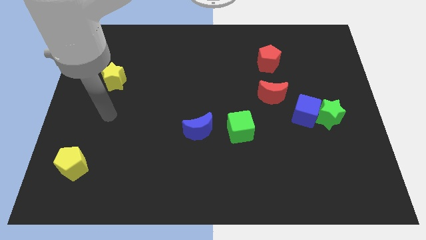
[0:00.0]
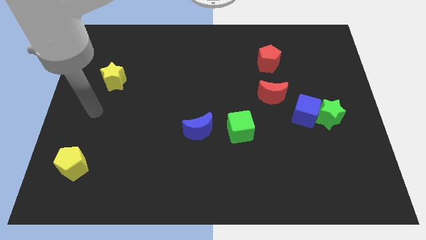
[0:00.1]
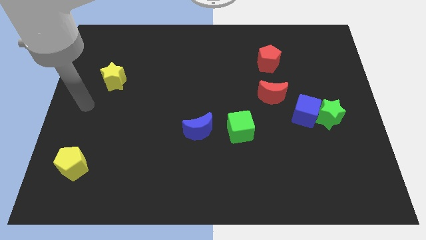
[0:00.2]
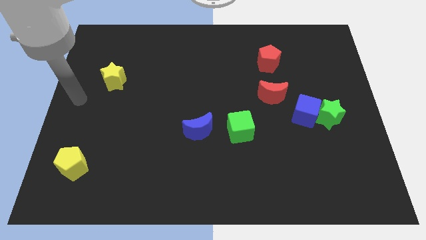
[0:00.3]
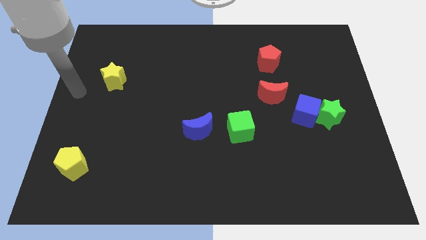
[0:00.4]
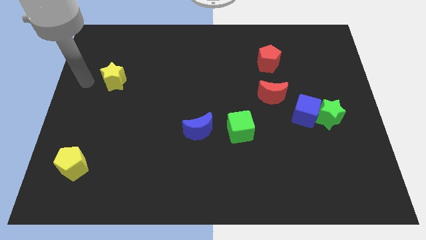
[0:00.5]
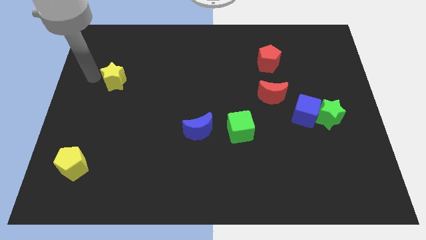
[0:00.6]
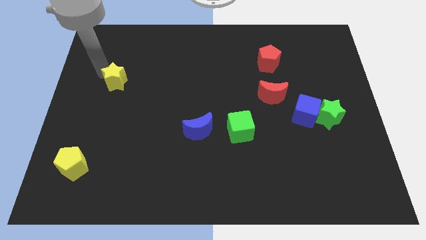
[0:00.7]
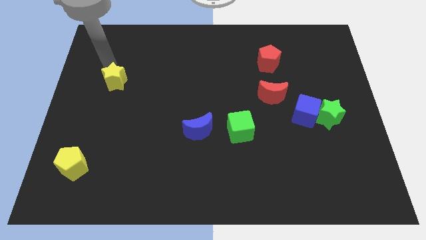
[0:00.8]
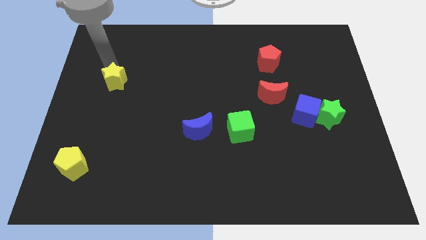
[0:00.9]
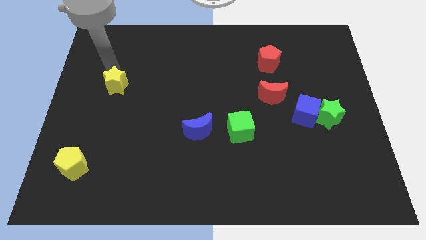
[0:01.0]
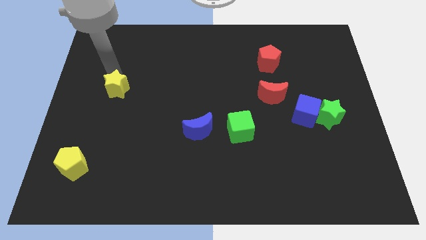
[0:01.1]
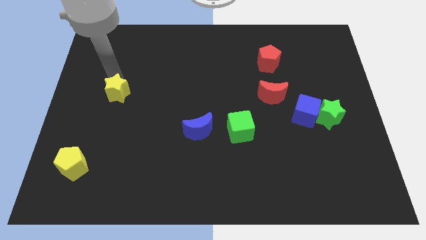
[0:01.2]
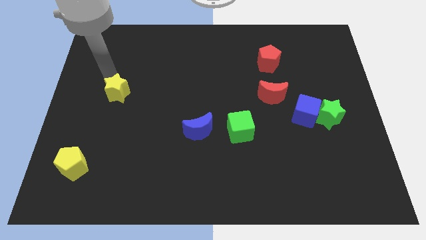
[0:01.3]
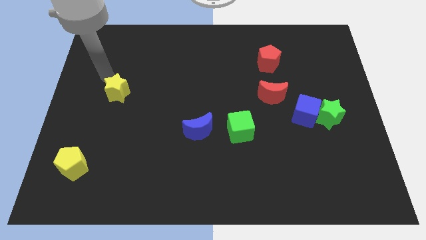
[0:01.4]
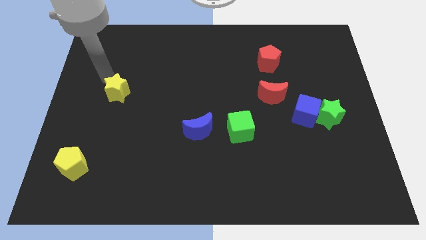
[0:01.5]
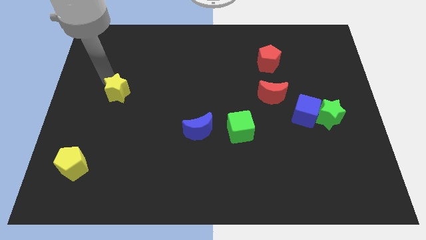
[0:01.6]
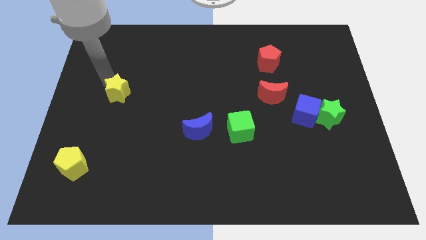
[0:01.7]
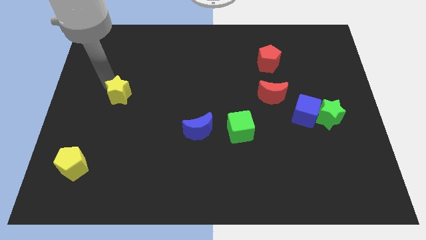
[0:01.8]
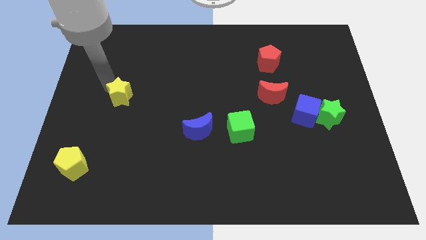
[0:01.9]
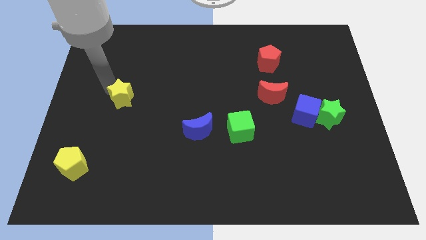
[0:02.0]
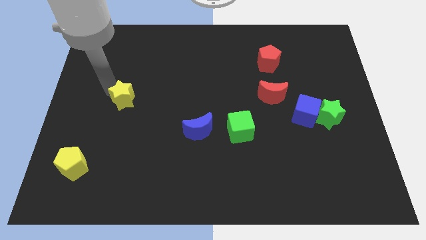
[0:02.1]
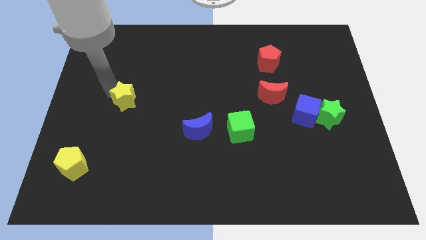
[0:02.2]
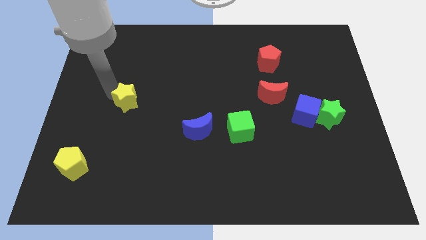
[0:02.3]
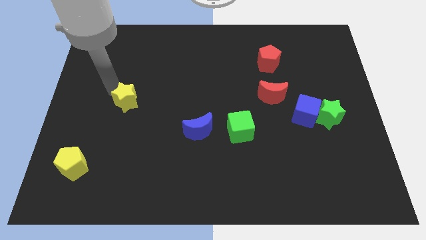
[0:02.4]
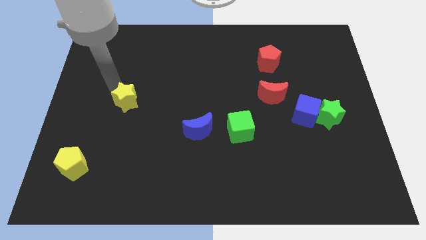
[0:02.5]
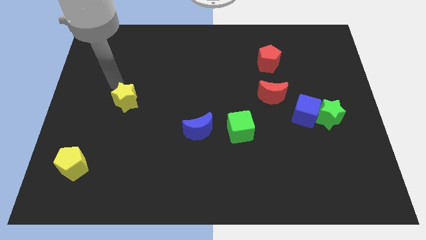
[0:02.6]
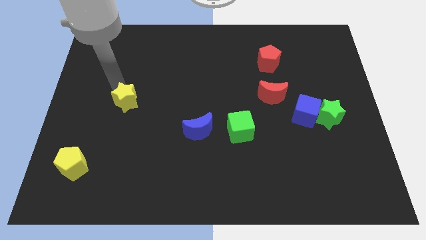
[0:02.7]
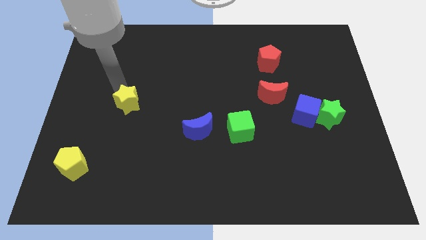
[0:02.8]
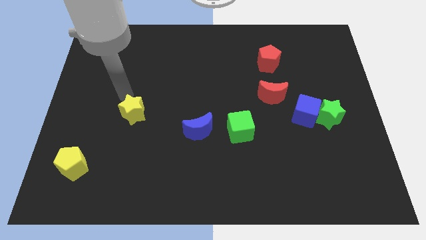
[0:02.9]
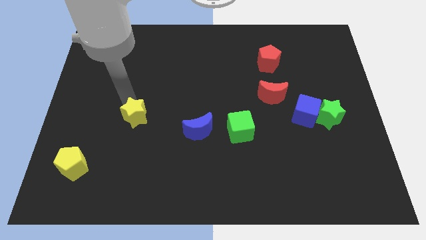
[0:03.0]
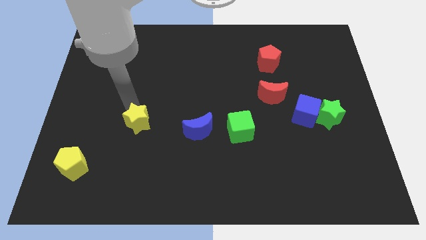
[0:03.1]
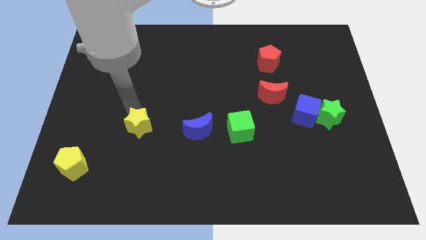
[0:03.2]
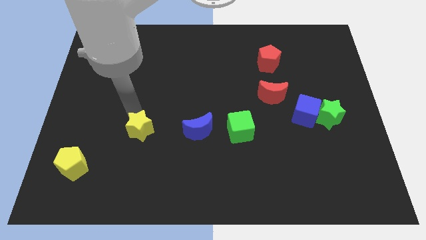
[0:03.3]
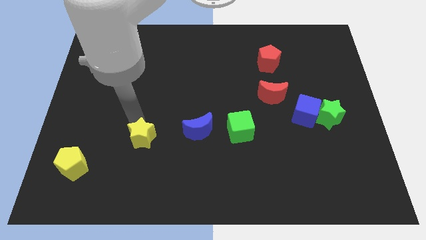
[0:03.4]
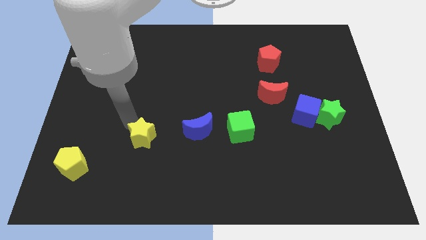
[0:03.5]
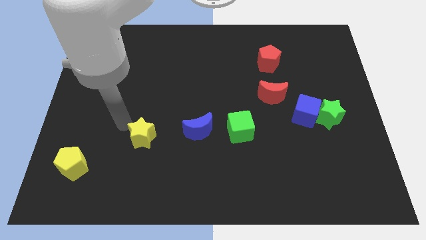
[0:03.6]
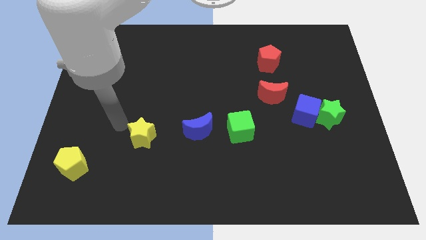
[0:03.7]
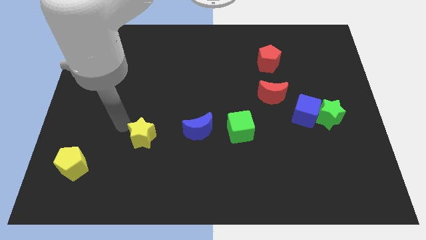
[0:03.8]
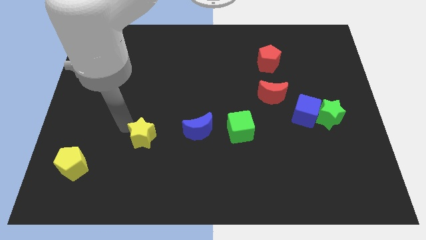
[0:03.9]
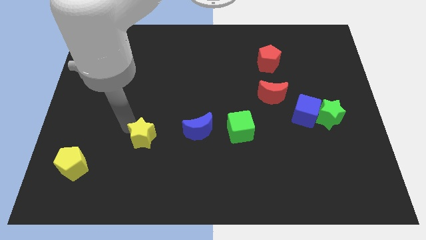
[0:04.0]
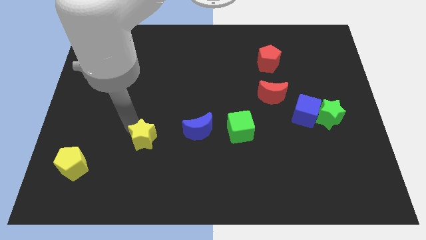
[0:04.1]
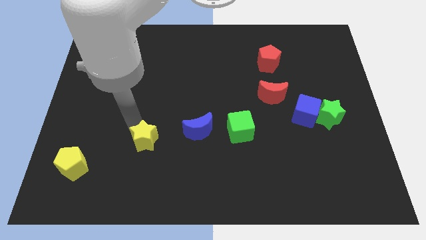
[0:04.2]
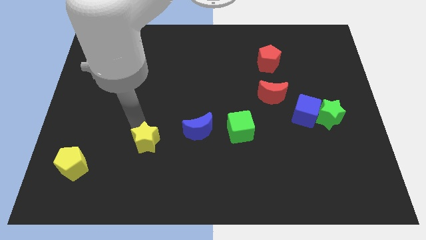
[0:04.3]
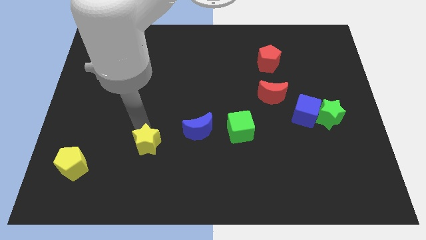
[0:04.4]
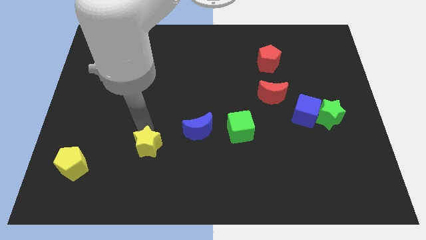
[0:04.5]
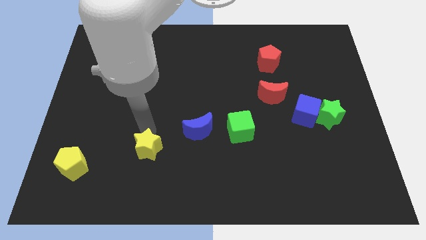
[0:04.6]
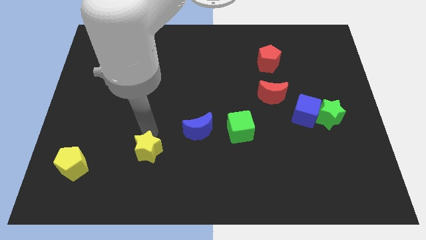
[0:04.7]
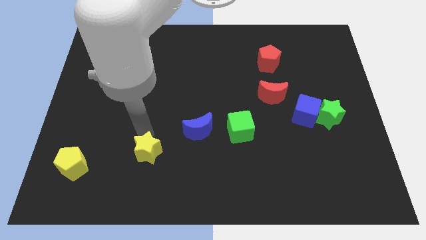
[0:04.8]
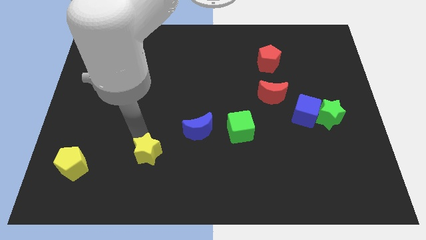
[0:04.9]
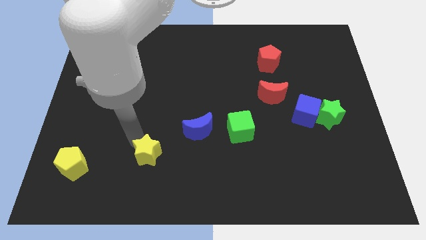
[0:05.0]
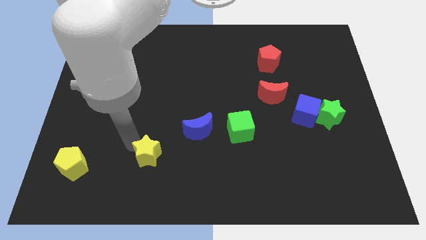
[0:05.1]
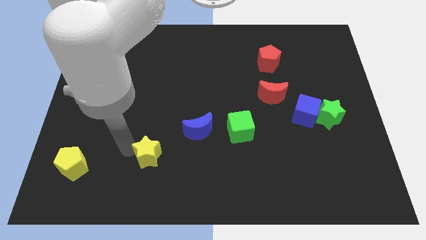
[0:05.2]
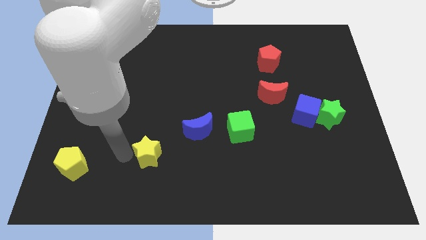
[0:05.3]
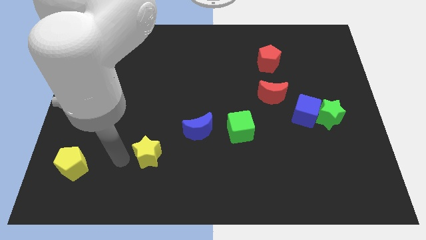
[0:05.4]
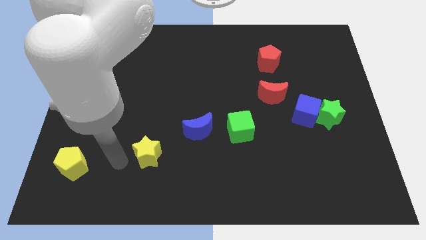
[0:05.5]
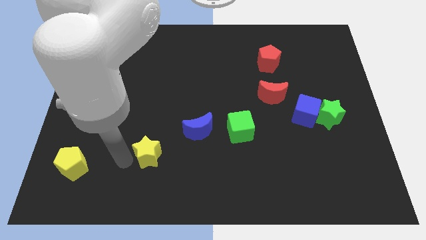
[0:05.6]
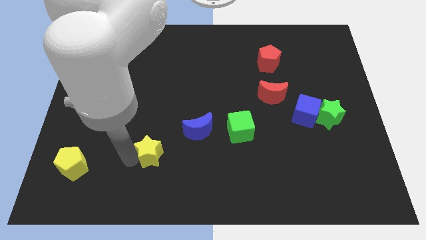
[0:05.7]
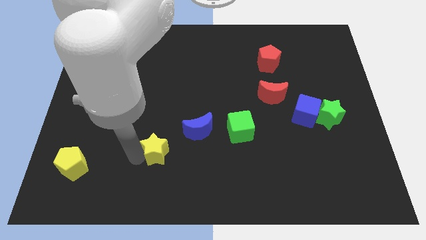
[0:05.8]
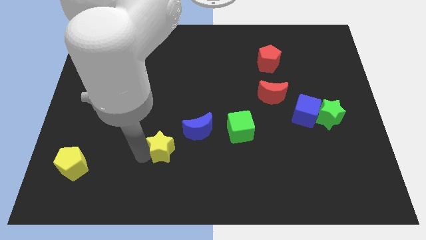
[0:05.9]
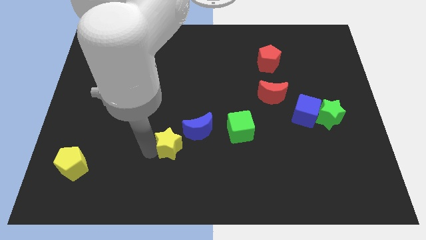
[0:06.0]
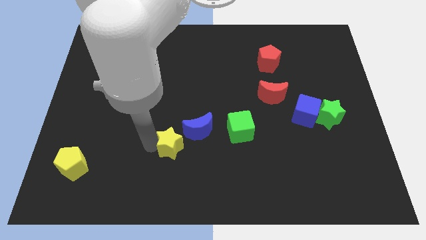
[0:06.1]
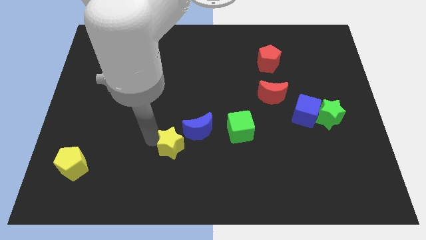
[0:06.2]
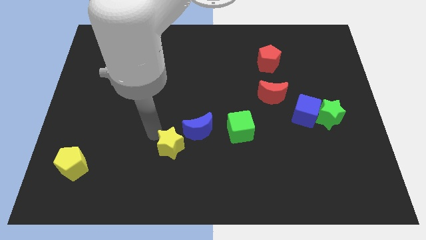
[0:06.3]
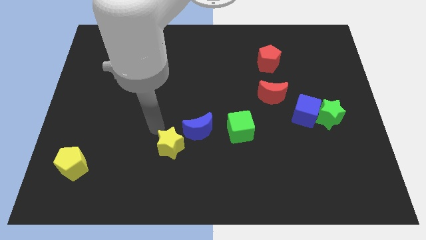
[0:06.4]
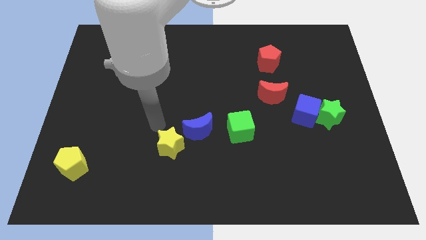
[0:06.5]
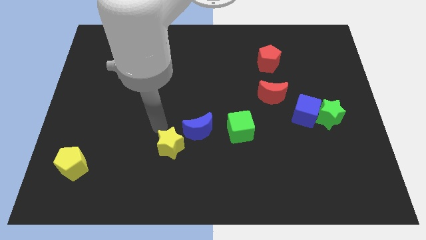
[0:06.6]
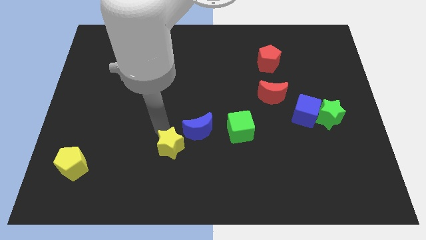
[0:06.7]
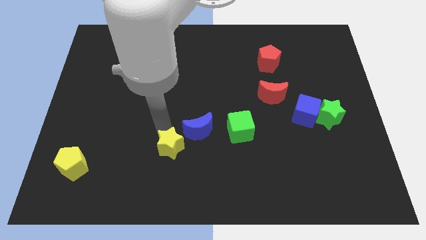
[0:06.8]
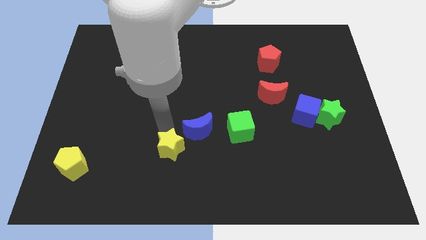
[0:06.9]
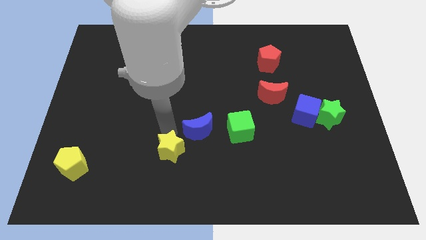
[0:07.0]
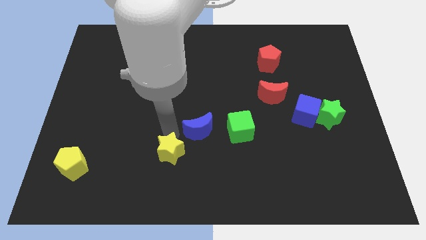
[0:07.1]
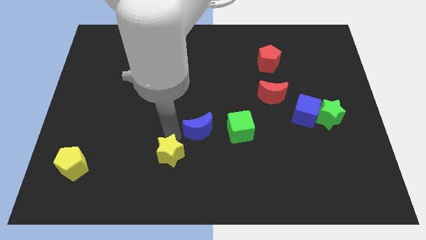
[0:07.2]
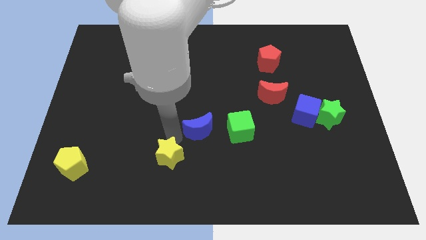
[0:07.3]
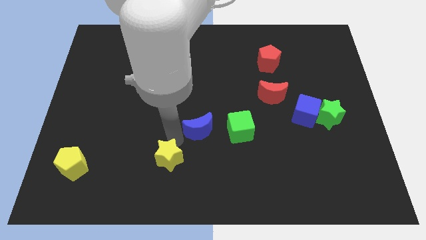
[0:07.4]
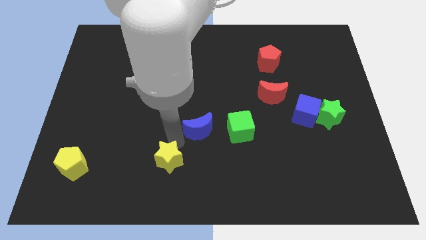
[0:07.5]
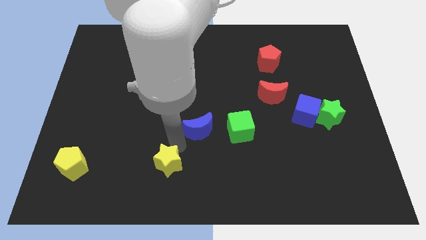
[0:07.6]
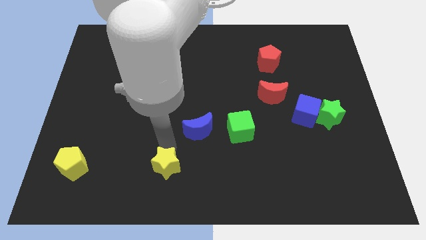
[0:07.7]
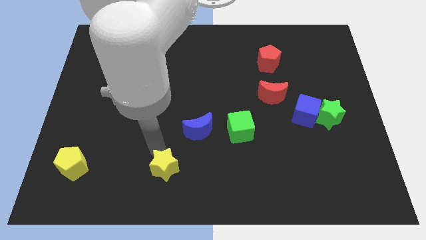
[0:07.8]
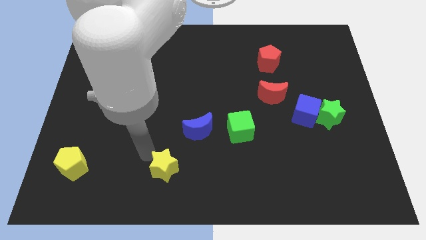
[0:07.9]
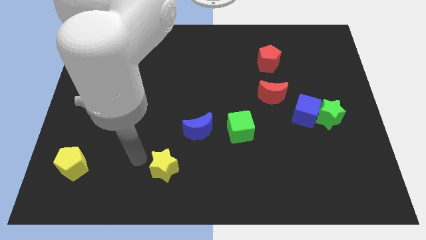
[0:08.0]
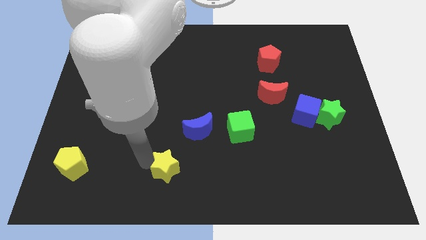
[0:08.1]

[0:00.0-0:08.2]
put the yellow star to the bottom
